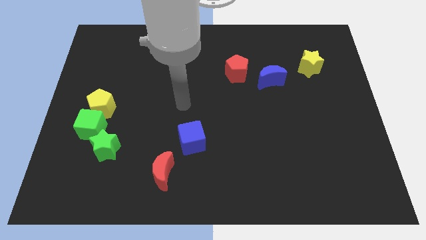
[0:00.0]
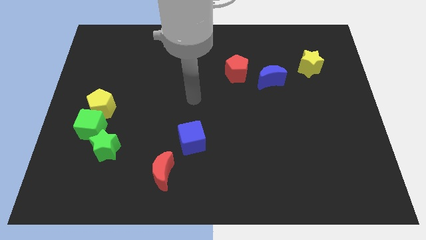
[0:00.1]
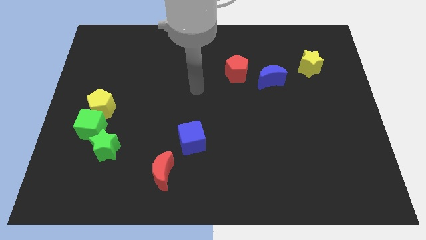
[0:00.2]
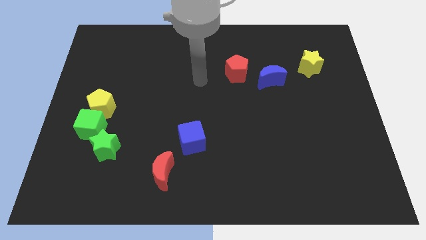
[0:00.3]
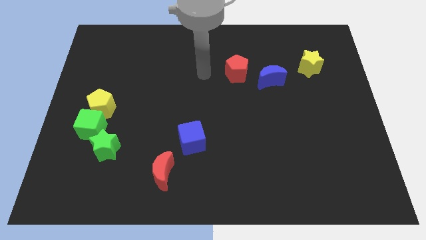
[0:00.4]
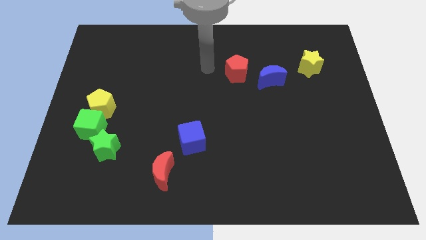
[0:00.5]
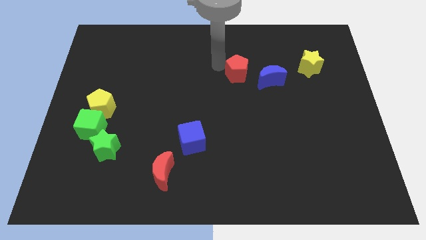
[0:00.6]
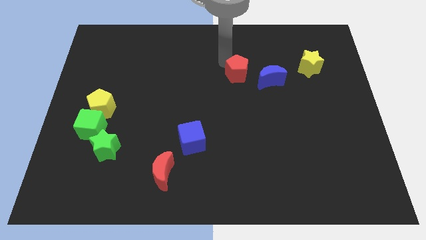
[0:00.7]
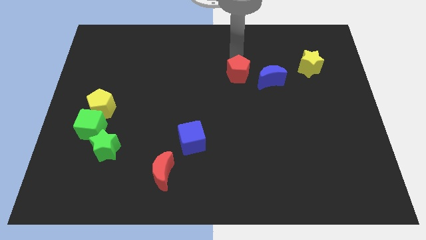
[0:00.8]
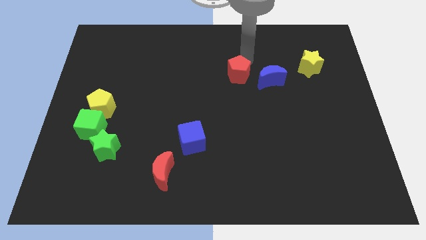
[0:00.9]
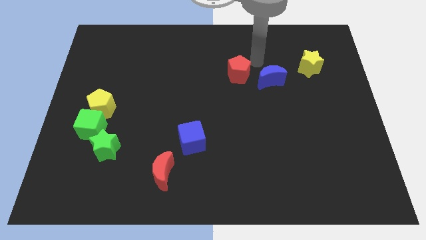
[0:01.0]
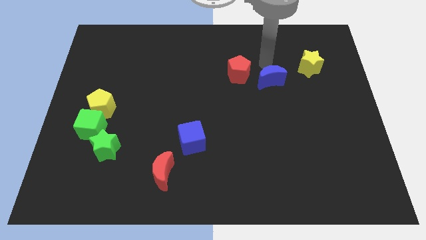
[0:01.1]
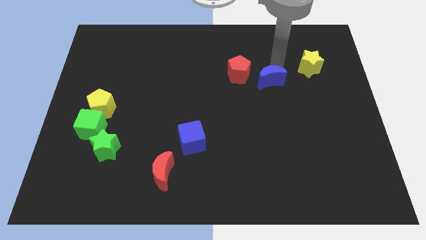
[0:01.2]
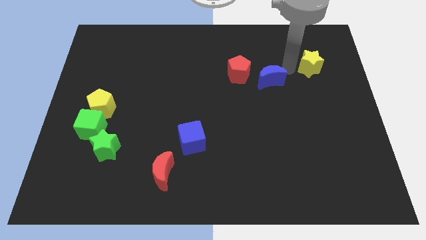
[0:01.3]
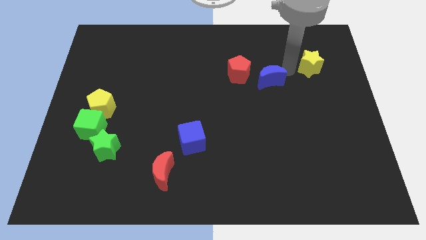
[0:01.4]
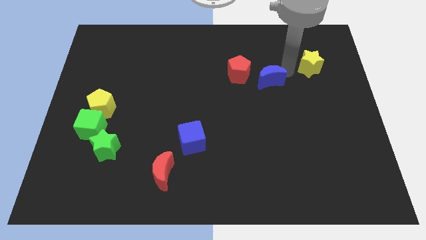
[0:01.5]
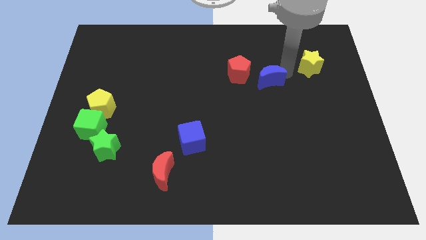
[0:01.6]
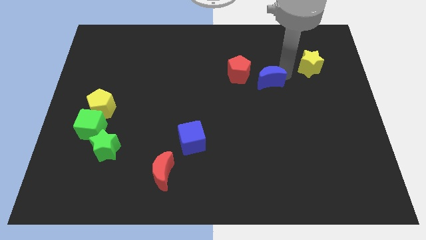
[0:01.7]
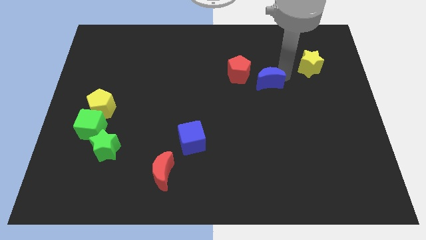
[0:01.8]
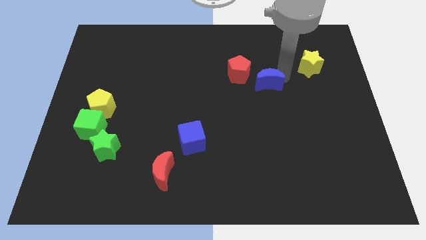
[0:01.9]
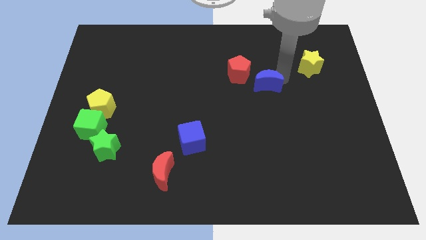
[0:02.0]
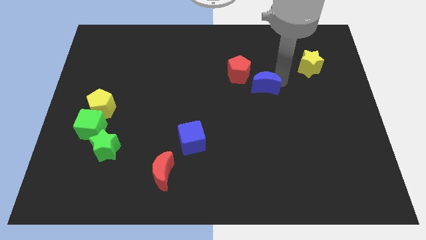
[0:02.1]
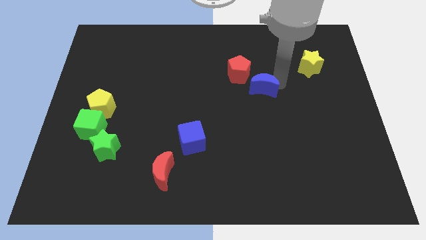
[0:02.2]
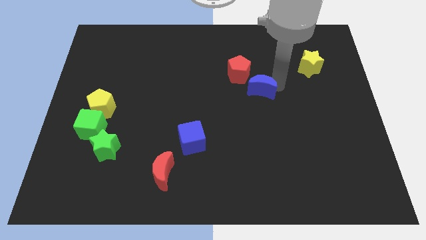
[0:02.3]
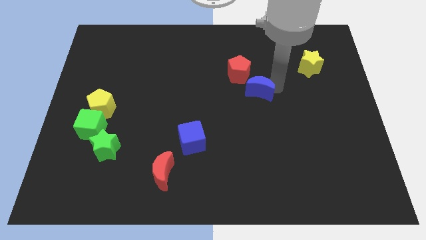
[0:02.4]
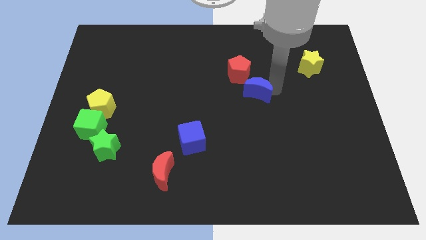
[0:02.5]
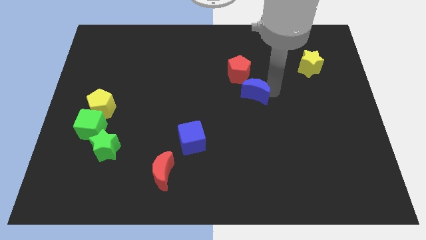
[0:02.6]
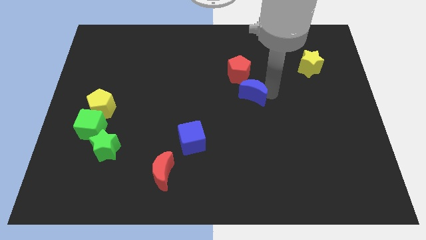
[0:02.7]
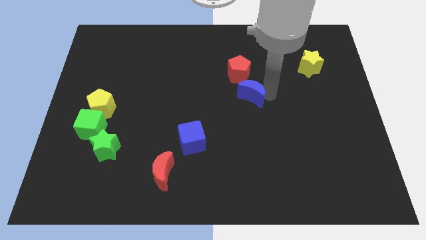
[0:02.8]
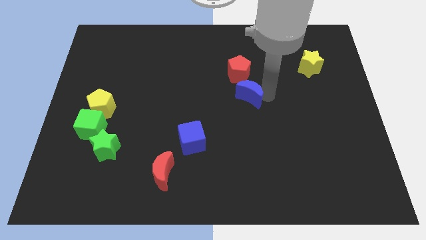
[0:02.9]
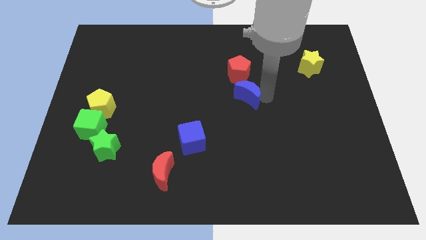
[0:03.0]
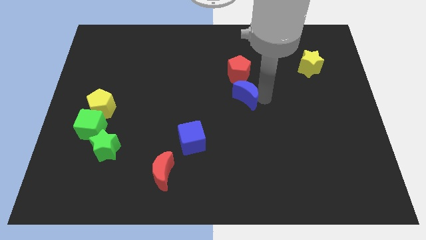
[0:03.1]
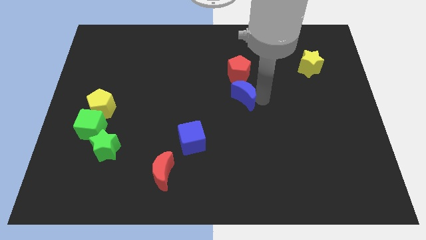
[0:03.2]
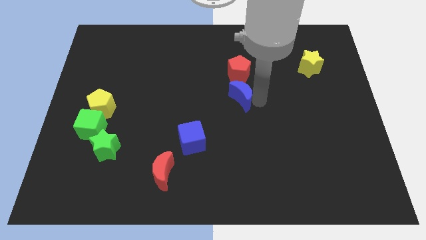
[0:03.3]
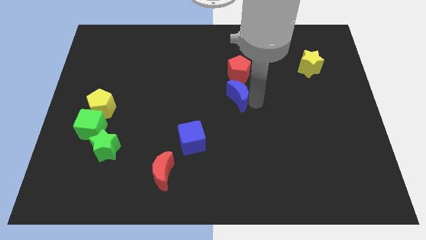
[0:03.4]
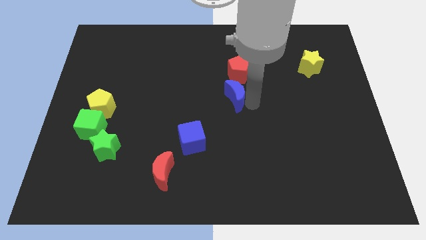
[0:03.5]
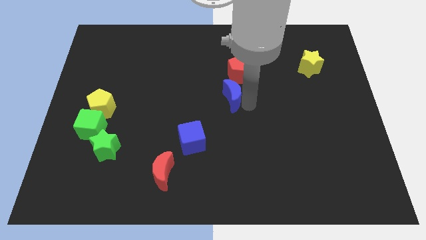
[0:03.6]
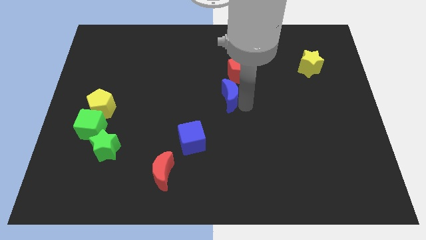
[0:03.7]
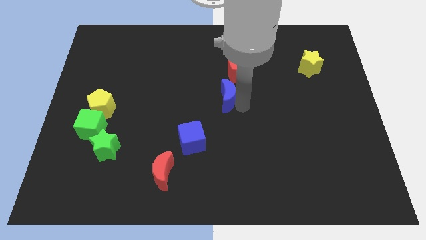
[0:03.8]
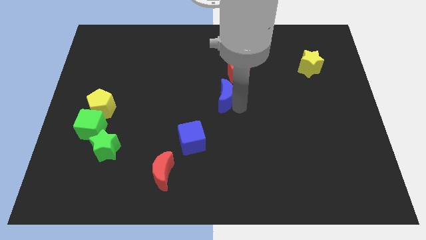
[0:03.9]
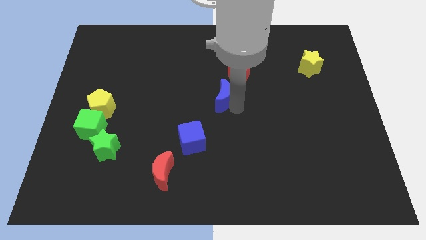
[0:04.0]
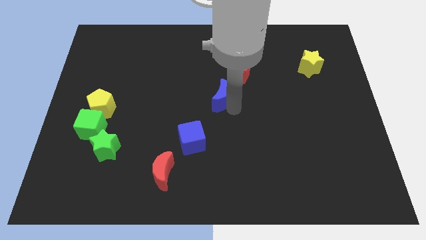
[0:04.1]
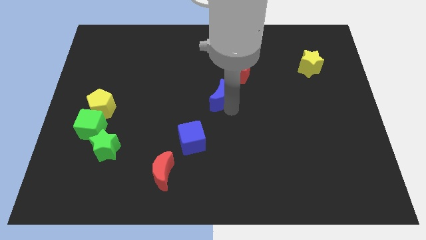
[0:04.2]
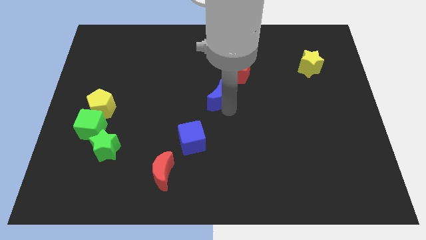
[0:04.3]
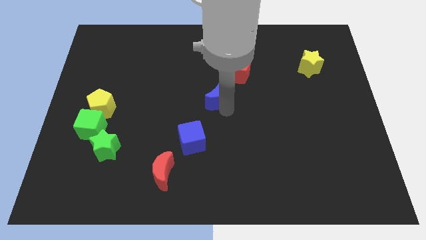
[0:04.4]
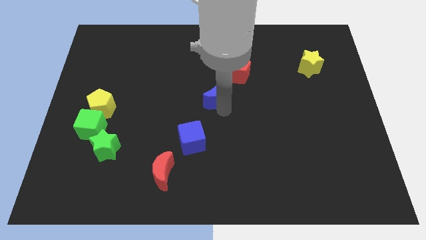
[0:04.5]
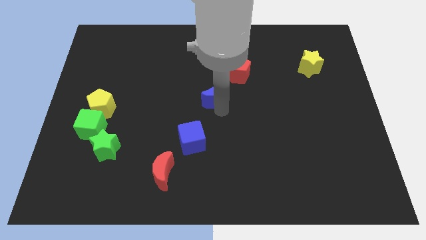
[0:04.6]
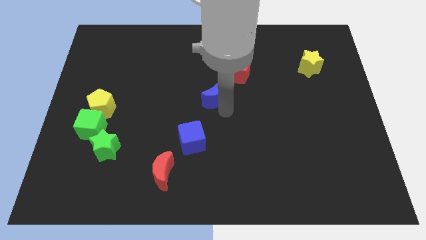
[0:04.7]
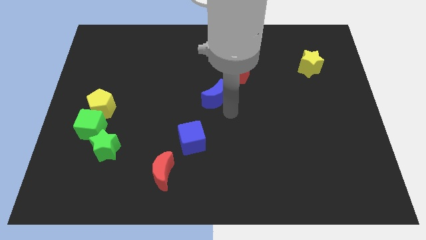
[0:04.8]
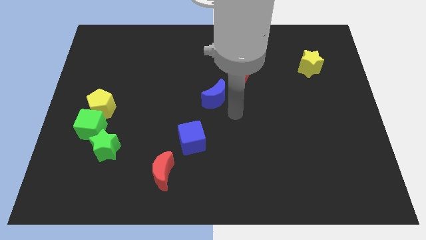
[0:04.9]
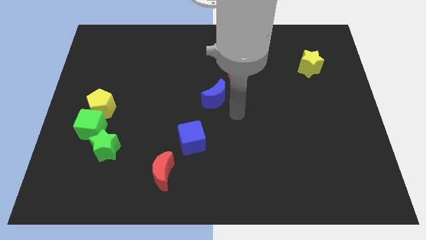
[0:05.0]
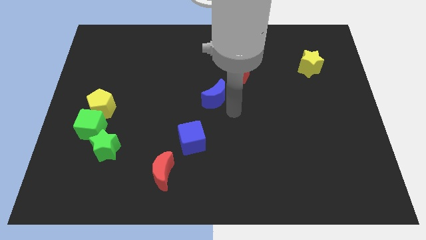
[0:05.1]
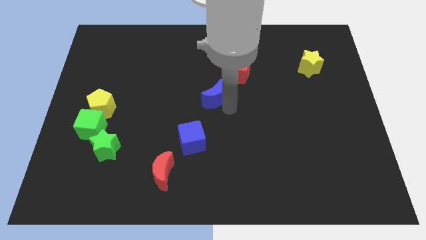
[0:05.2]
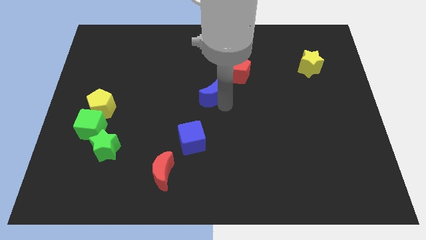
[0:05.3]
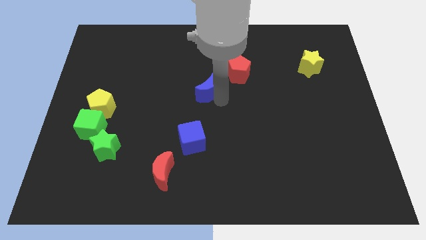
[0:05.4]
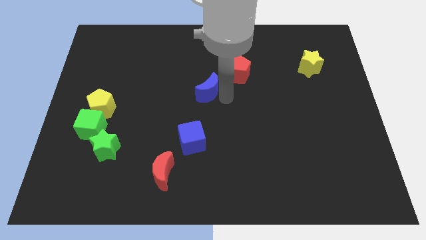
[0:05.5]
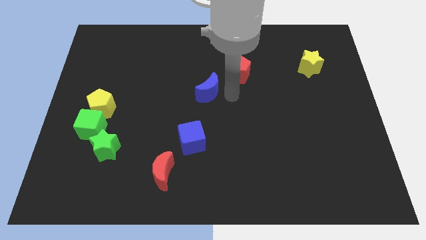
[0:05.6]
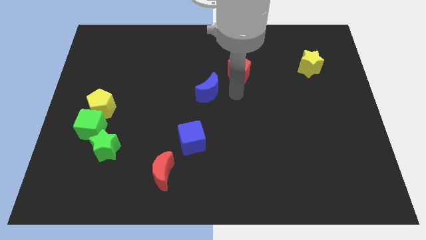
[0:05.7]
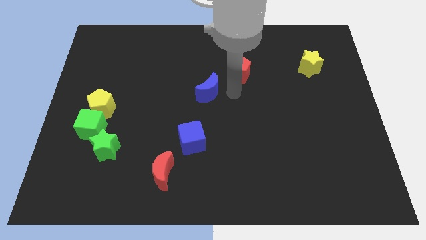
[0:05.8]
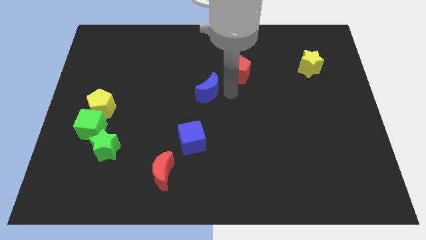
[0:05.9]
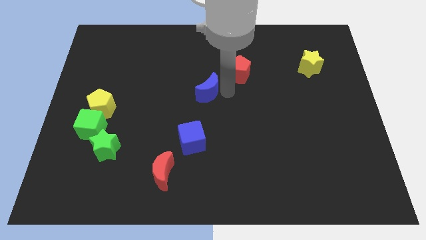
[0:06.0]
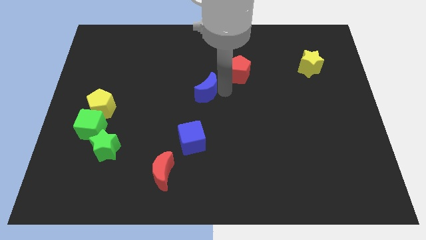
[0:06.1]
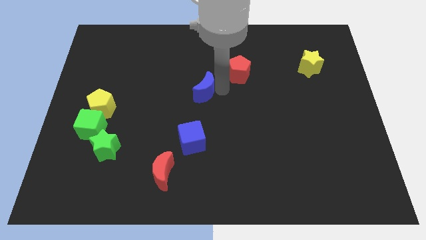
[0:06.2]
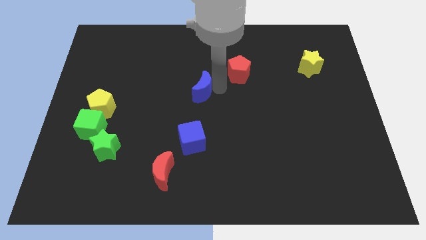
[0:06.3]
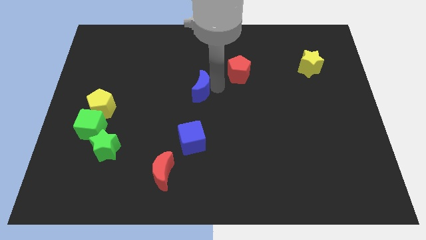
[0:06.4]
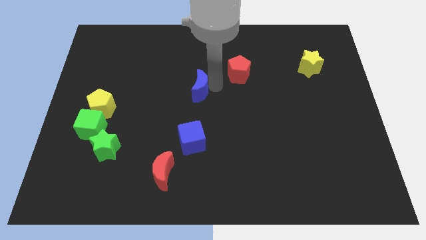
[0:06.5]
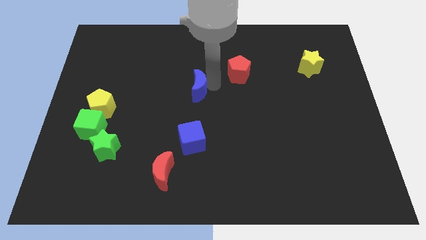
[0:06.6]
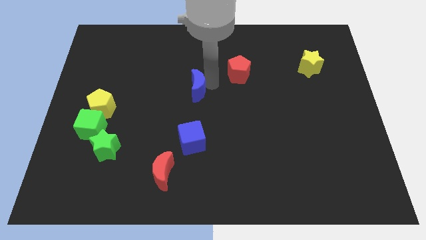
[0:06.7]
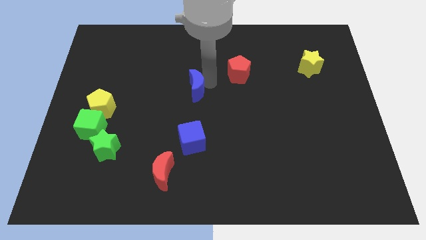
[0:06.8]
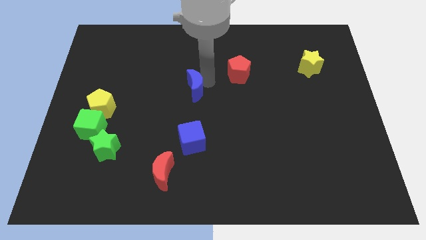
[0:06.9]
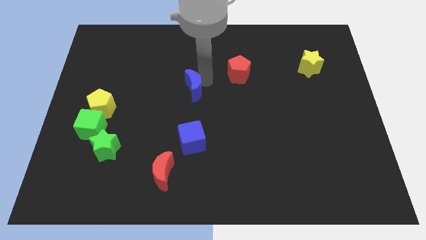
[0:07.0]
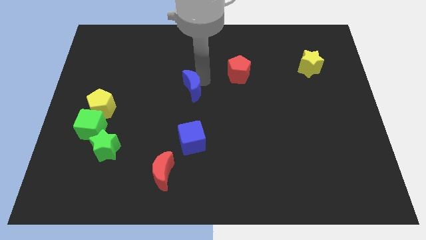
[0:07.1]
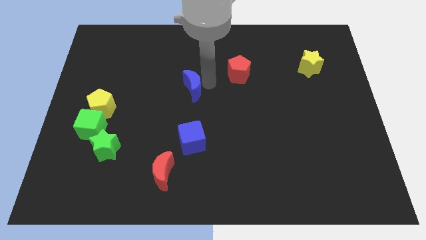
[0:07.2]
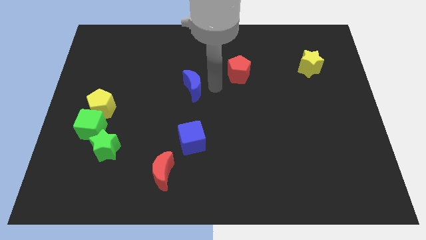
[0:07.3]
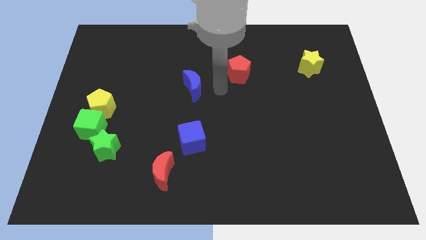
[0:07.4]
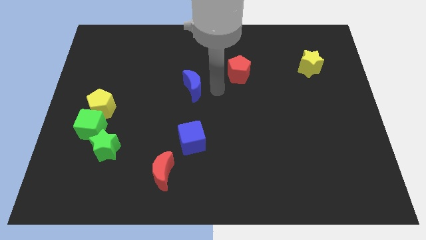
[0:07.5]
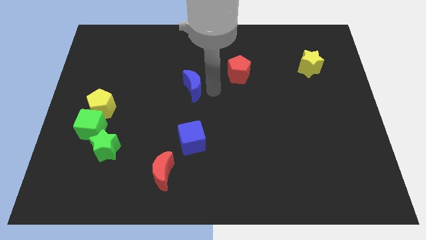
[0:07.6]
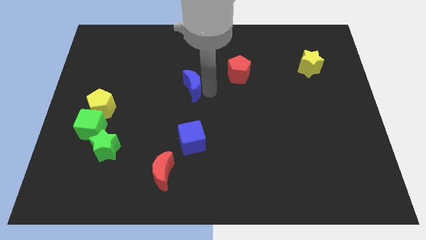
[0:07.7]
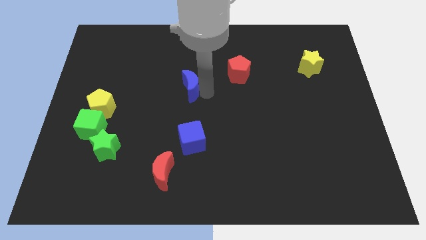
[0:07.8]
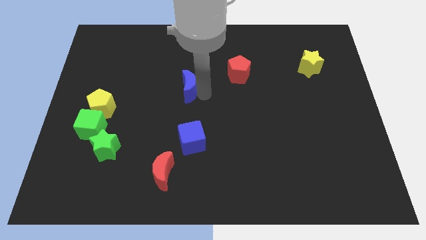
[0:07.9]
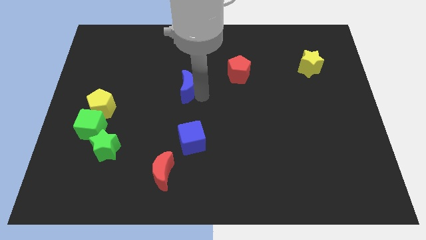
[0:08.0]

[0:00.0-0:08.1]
slide the blue moon to the left

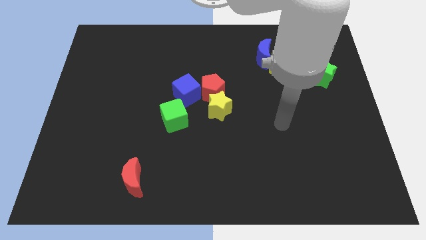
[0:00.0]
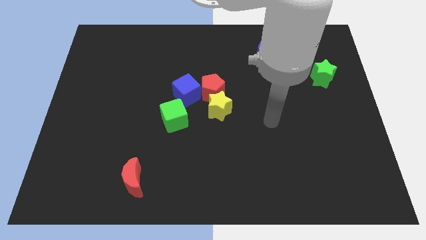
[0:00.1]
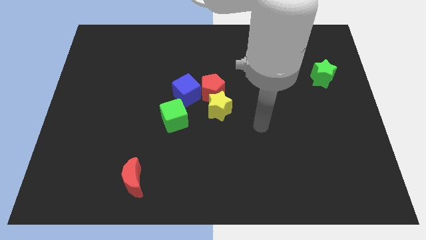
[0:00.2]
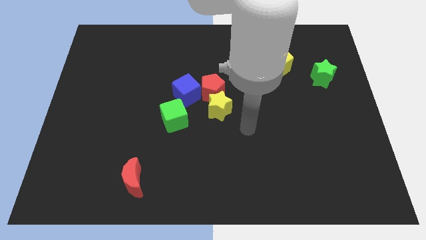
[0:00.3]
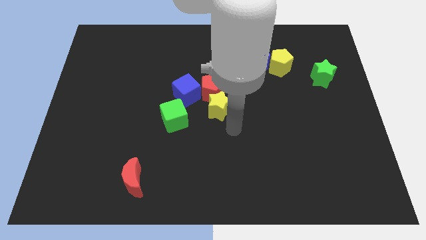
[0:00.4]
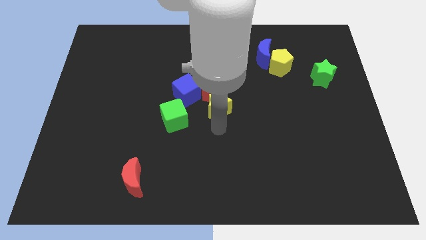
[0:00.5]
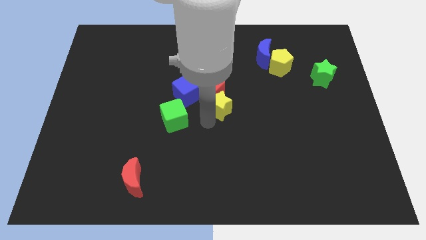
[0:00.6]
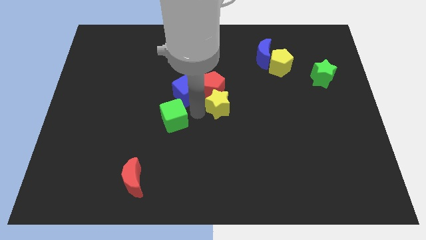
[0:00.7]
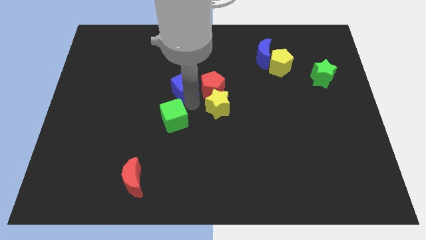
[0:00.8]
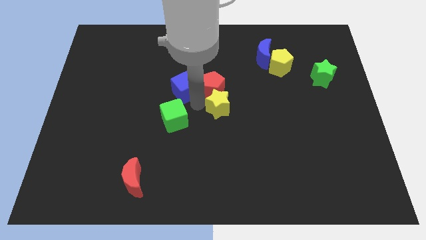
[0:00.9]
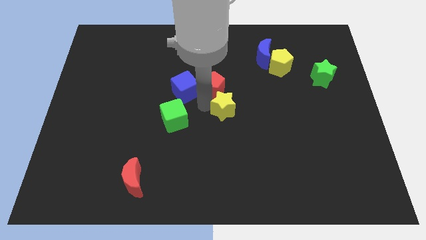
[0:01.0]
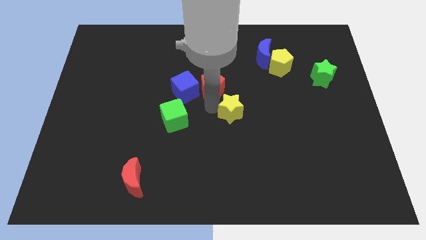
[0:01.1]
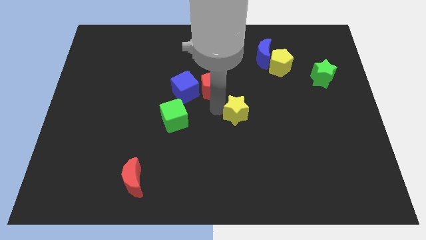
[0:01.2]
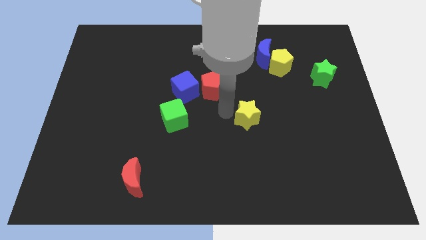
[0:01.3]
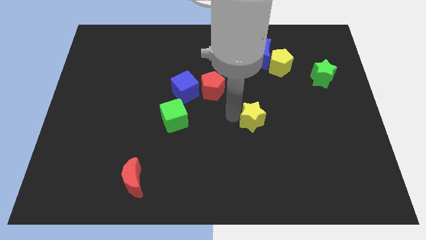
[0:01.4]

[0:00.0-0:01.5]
push the yellow star right a little
